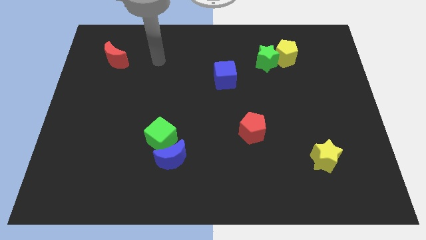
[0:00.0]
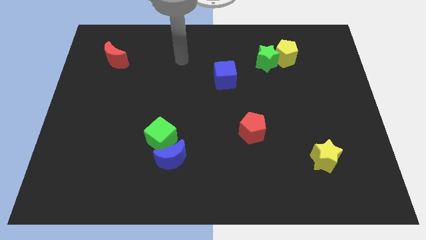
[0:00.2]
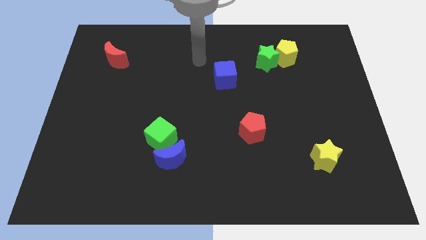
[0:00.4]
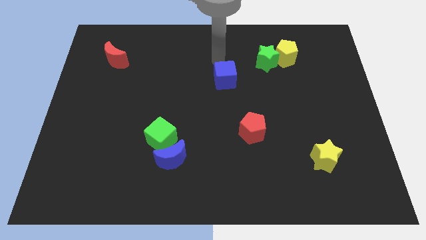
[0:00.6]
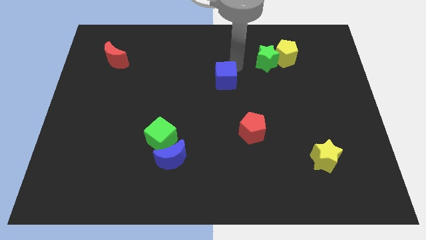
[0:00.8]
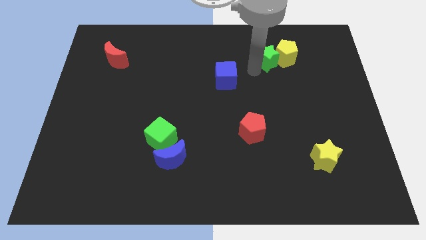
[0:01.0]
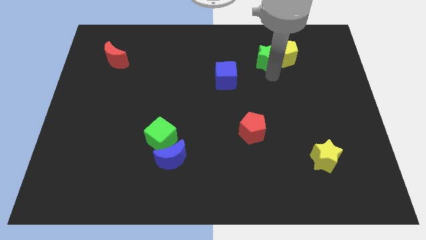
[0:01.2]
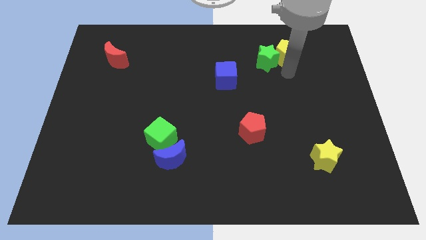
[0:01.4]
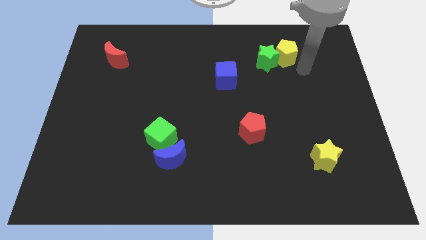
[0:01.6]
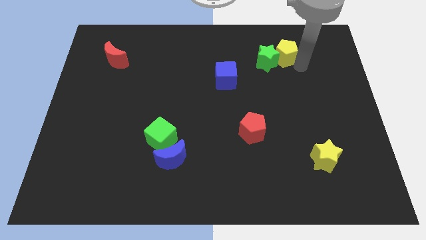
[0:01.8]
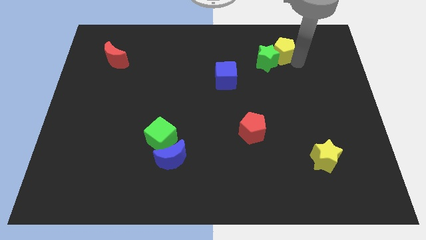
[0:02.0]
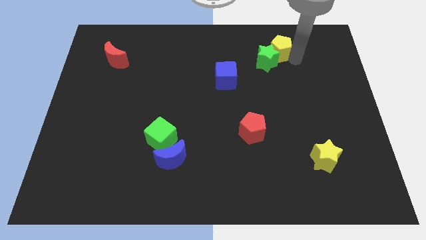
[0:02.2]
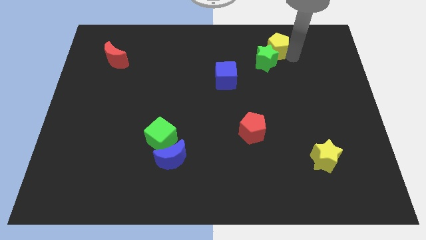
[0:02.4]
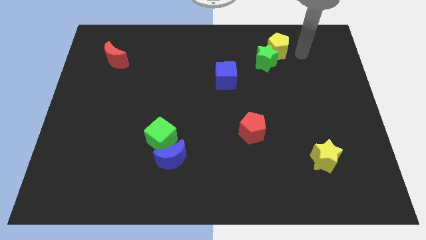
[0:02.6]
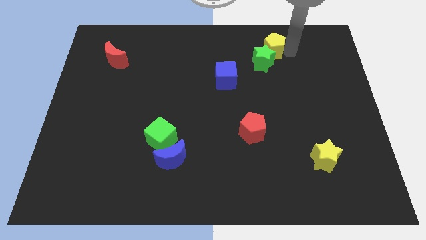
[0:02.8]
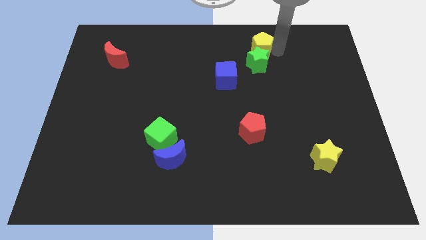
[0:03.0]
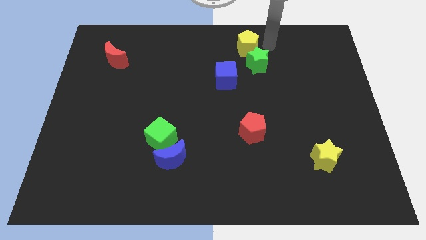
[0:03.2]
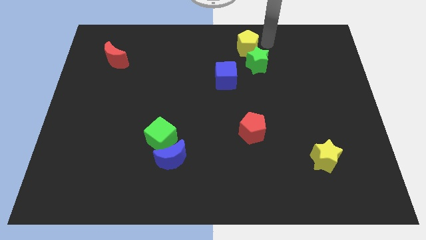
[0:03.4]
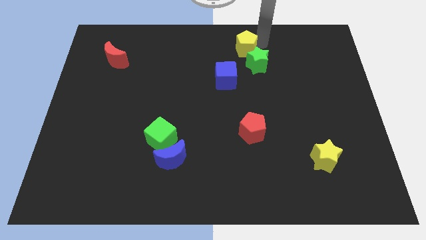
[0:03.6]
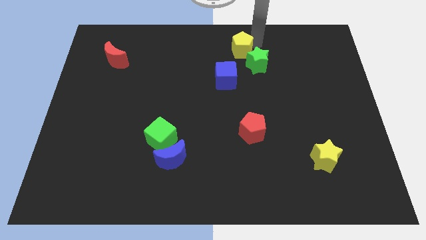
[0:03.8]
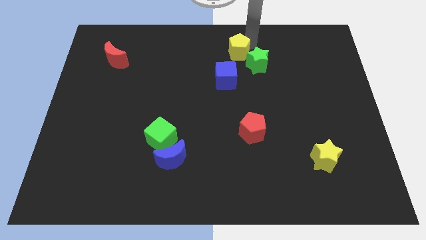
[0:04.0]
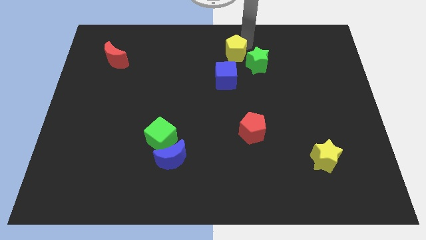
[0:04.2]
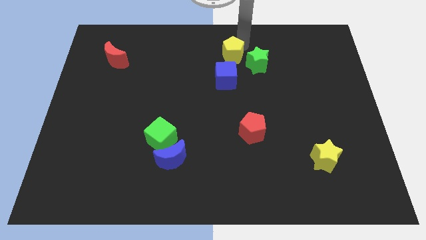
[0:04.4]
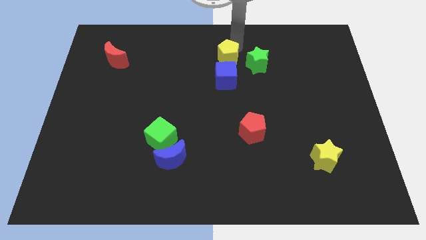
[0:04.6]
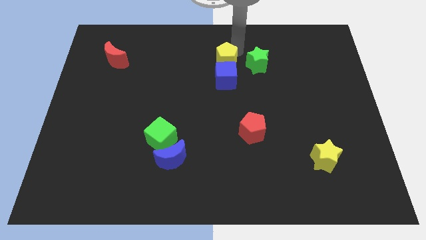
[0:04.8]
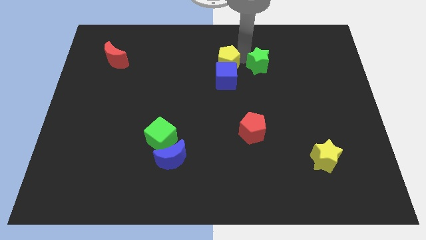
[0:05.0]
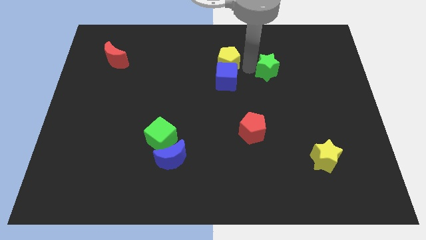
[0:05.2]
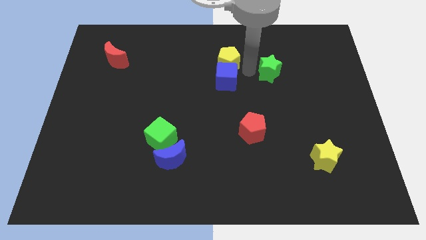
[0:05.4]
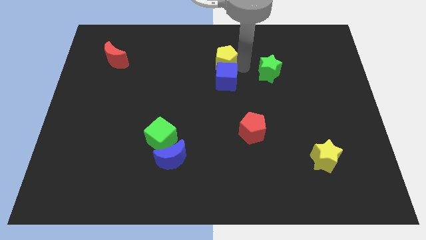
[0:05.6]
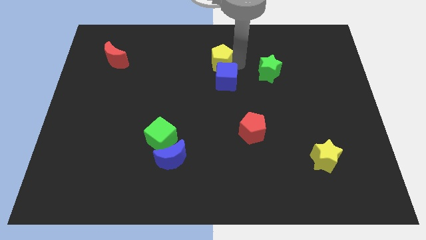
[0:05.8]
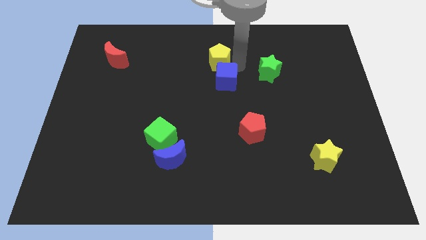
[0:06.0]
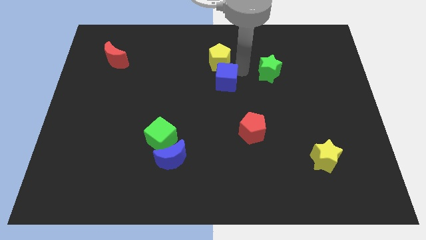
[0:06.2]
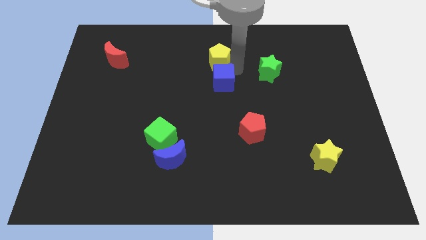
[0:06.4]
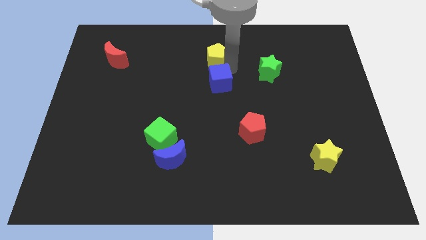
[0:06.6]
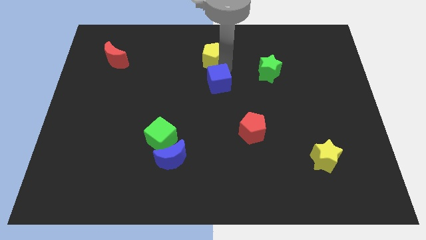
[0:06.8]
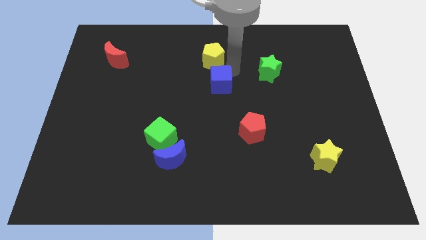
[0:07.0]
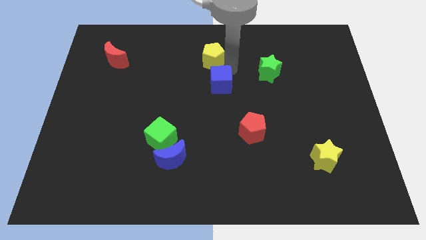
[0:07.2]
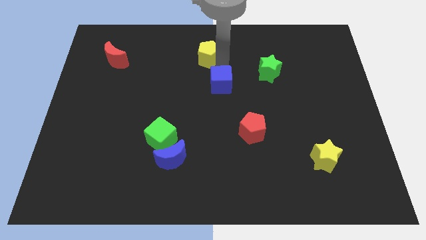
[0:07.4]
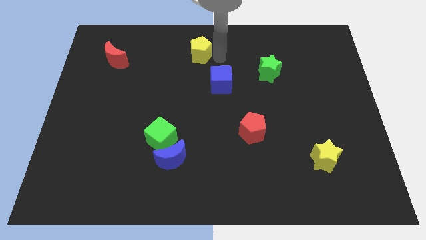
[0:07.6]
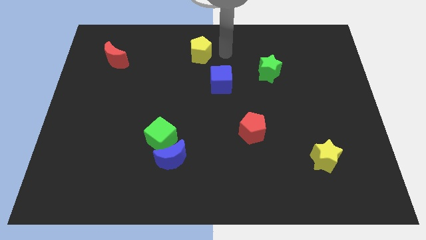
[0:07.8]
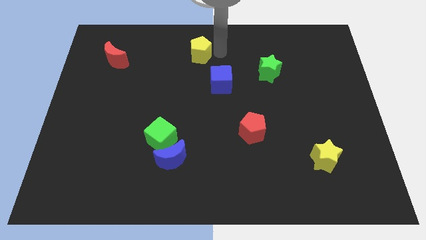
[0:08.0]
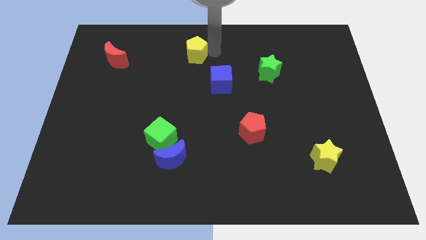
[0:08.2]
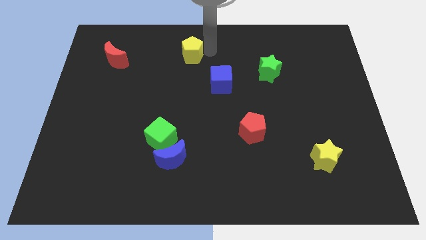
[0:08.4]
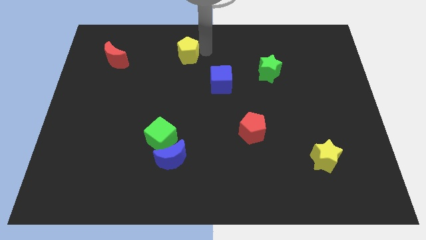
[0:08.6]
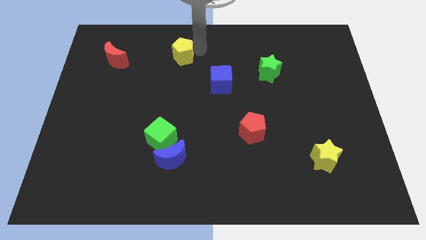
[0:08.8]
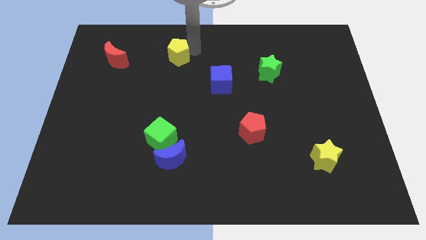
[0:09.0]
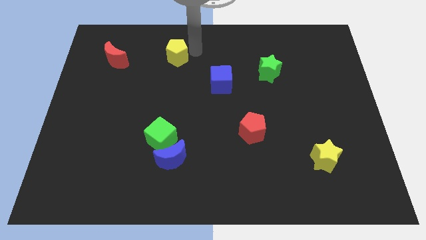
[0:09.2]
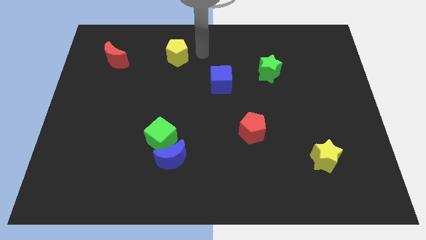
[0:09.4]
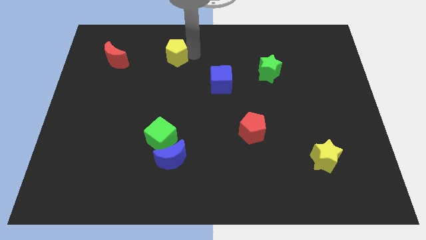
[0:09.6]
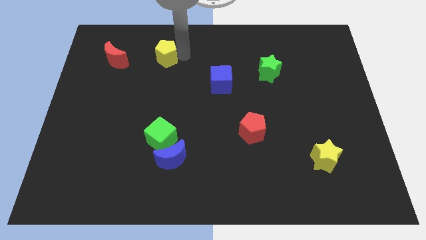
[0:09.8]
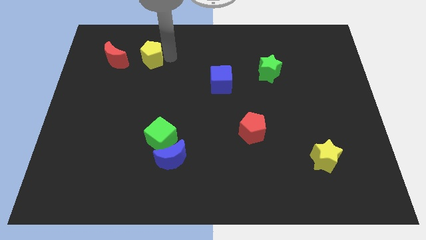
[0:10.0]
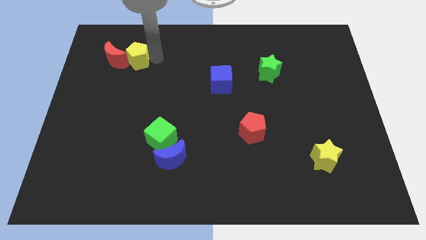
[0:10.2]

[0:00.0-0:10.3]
slide the yellow pentagon close to the red moon

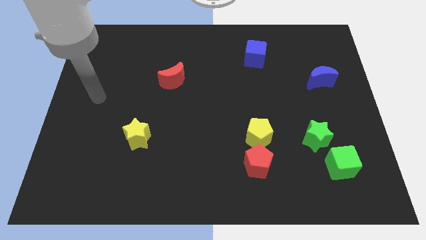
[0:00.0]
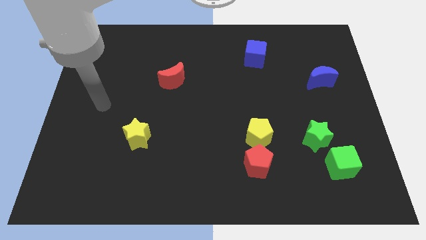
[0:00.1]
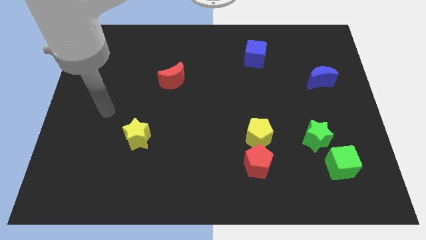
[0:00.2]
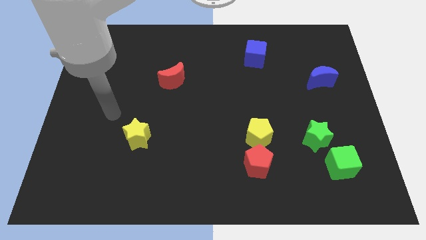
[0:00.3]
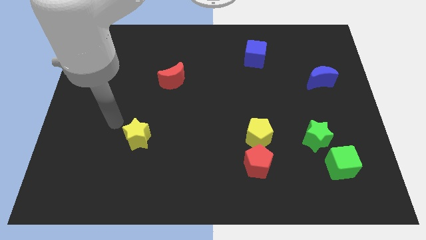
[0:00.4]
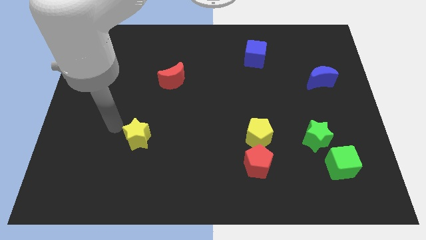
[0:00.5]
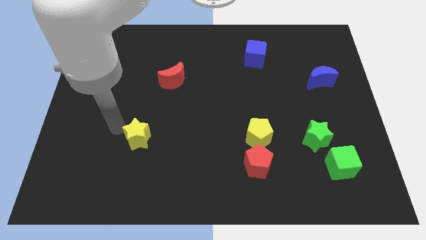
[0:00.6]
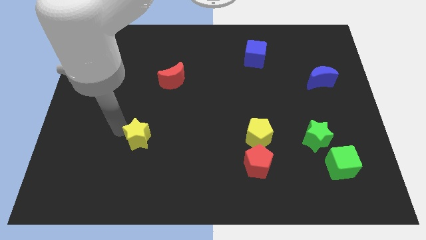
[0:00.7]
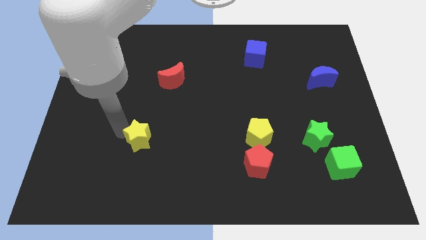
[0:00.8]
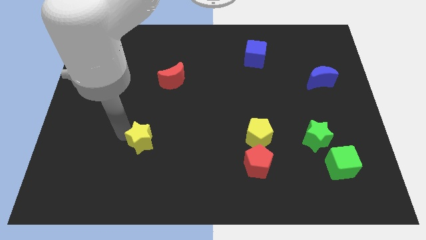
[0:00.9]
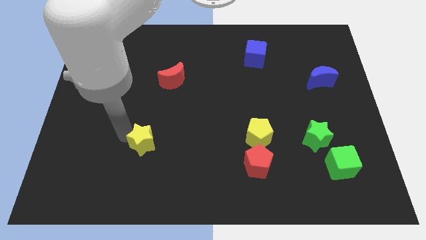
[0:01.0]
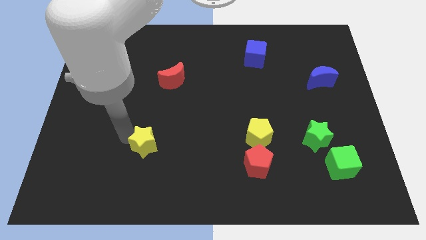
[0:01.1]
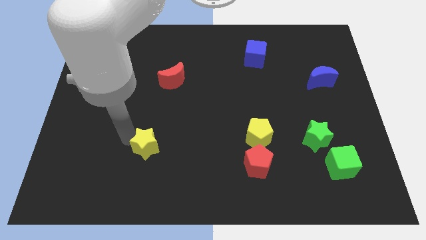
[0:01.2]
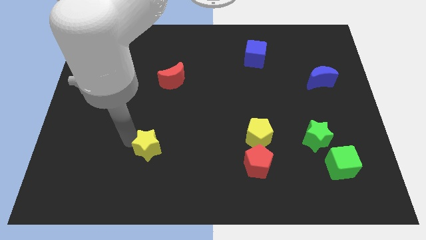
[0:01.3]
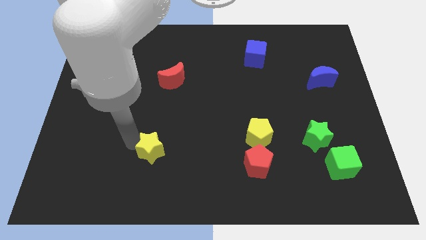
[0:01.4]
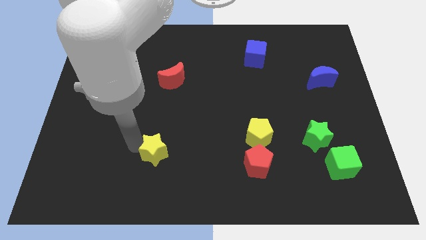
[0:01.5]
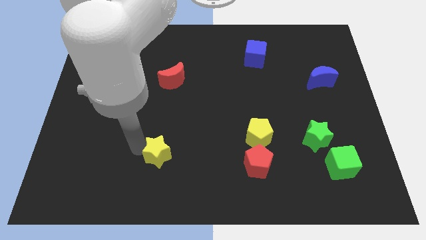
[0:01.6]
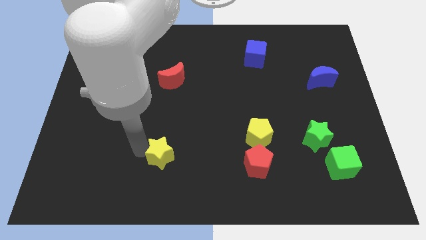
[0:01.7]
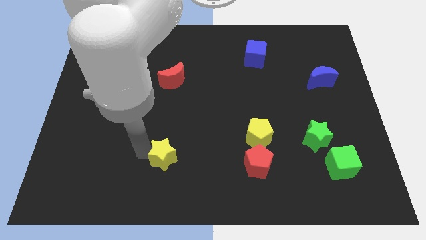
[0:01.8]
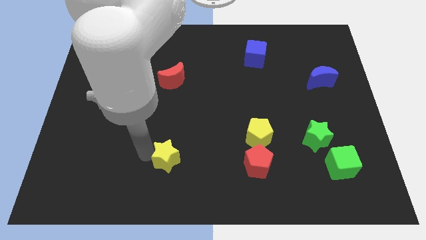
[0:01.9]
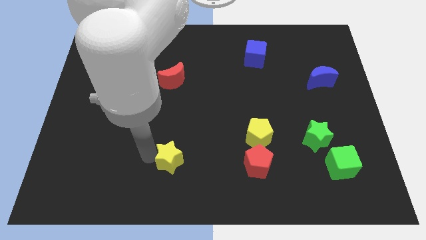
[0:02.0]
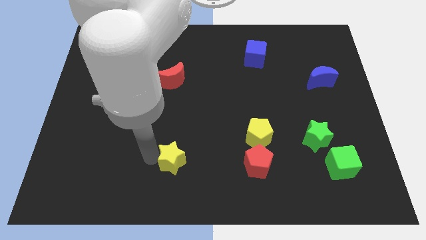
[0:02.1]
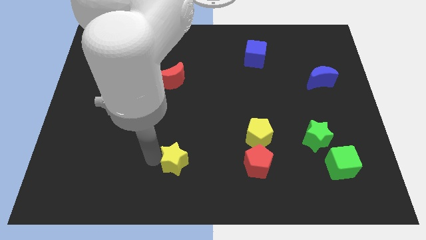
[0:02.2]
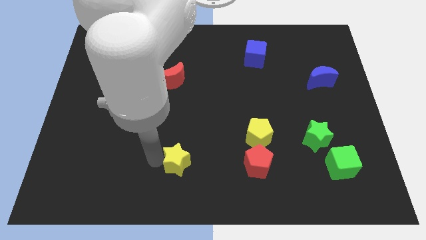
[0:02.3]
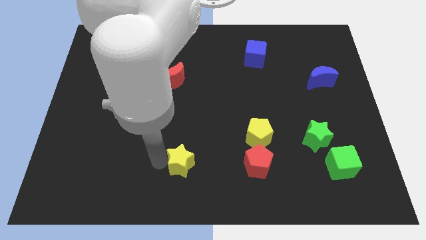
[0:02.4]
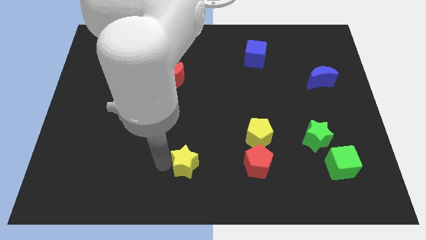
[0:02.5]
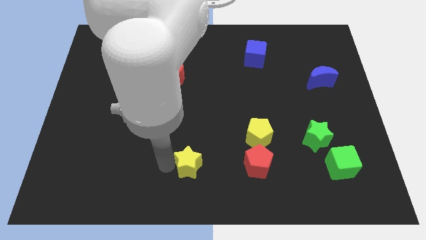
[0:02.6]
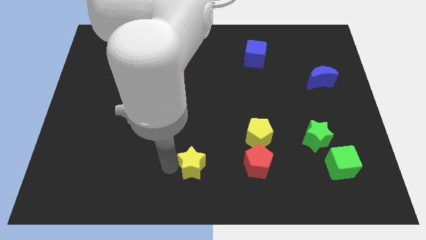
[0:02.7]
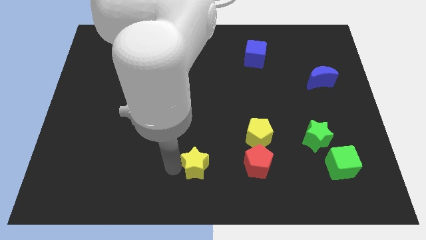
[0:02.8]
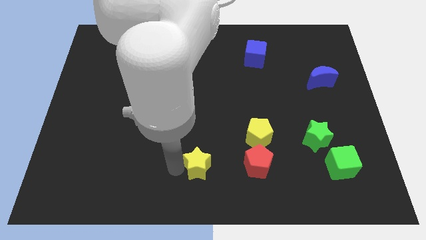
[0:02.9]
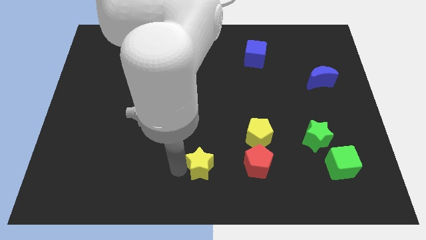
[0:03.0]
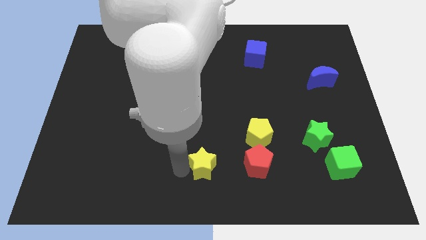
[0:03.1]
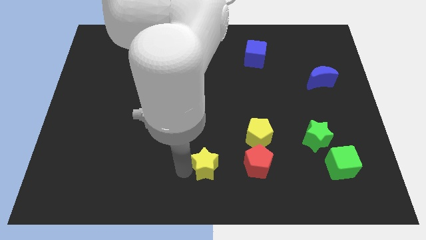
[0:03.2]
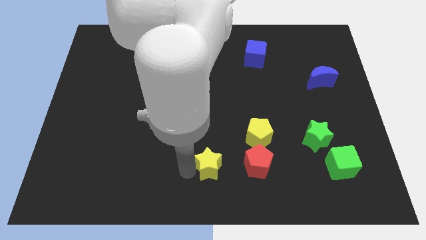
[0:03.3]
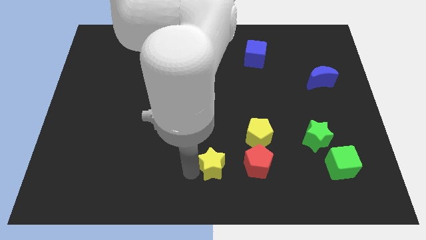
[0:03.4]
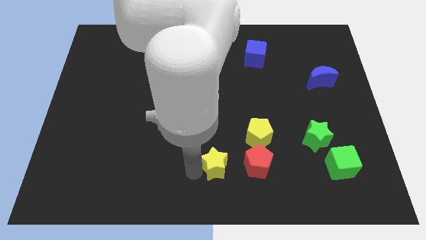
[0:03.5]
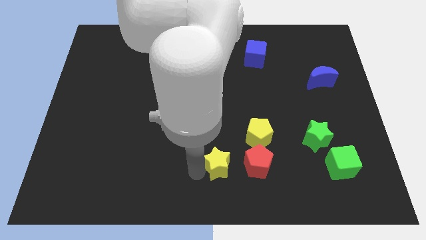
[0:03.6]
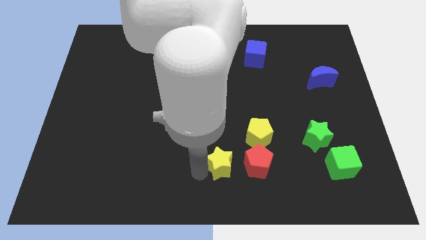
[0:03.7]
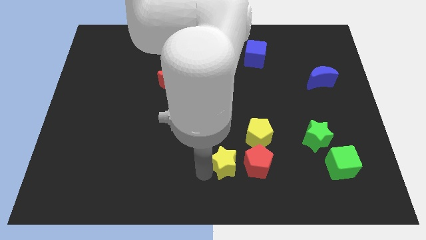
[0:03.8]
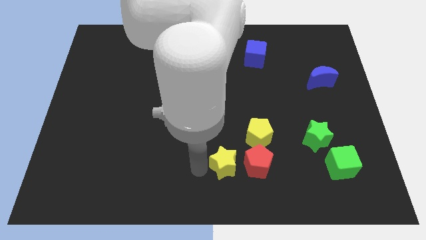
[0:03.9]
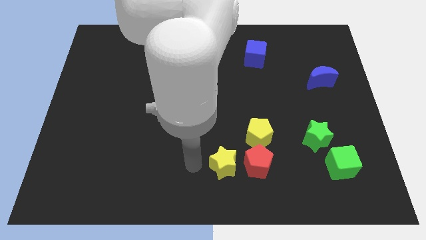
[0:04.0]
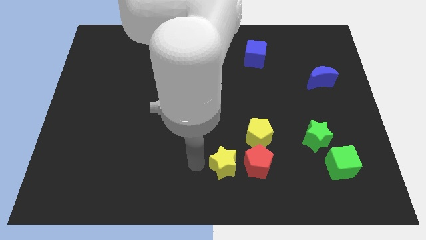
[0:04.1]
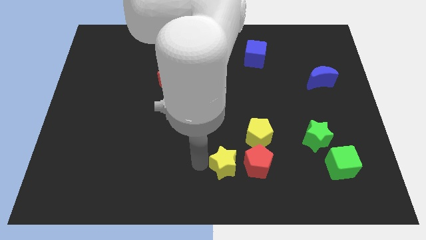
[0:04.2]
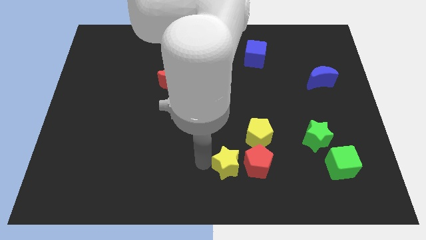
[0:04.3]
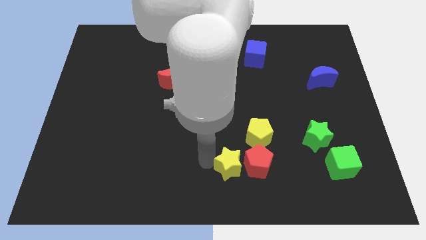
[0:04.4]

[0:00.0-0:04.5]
slide the yellow star to the red pentagon
